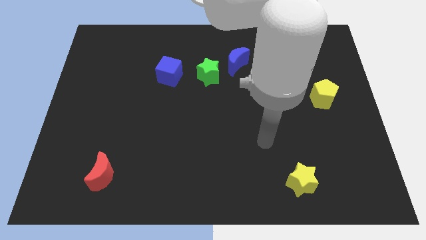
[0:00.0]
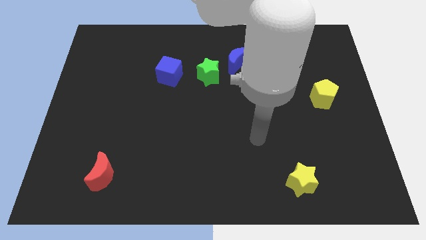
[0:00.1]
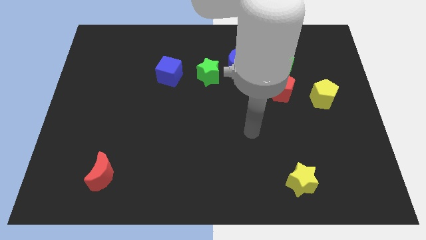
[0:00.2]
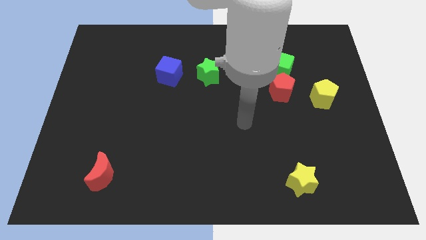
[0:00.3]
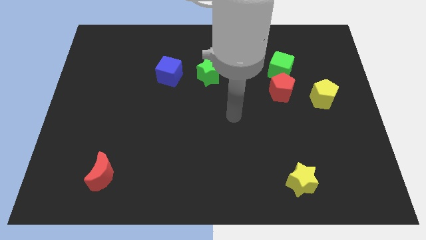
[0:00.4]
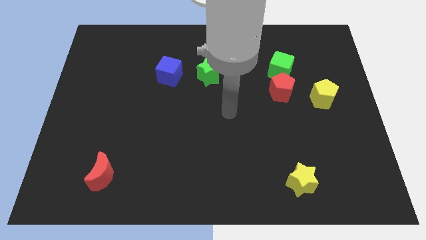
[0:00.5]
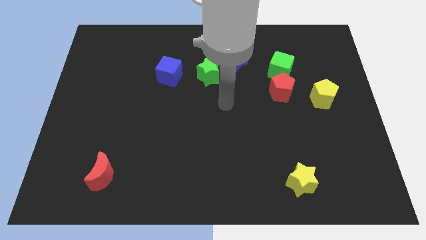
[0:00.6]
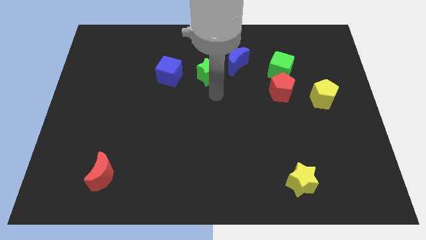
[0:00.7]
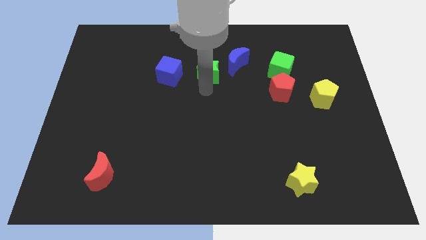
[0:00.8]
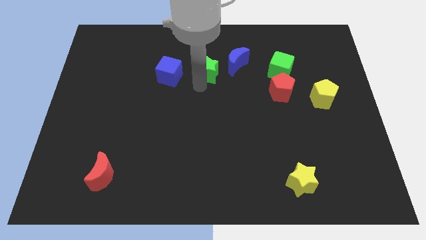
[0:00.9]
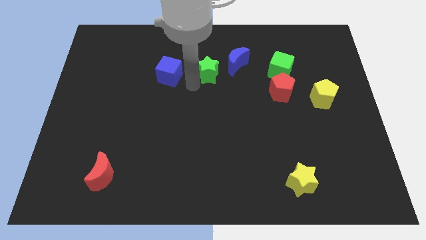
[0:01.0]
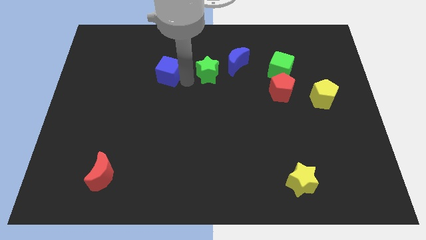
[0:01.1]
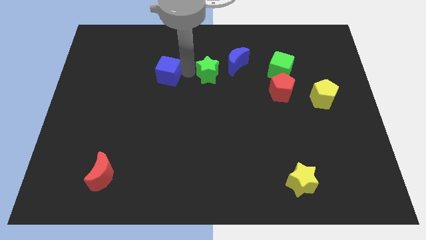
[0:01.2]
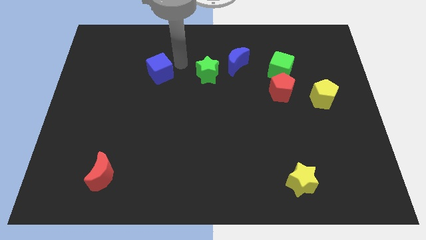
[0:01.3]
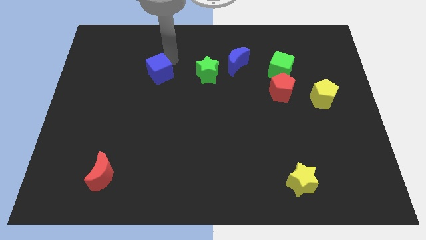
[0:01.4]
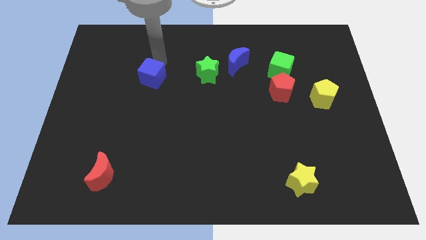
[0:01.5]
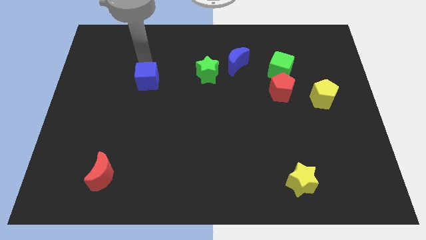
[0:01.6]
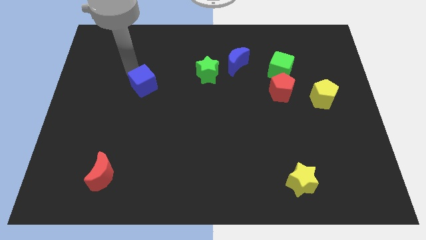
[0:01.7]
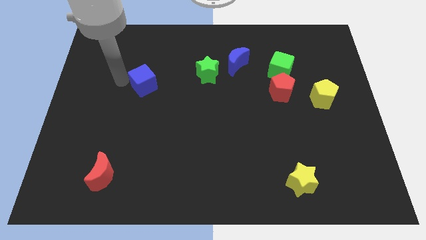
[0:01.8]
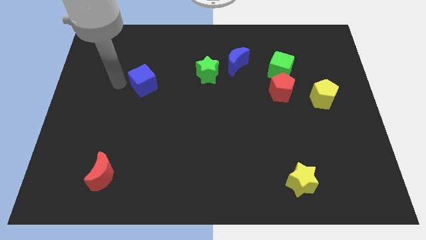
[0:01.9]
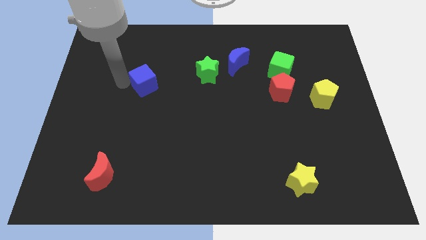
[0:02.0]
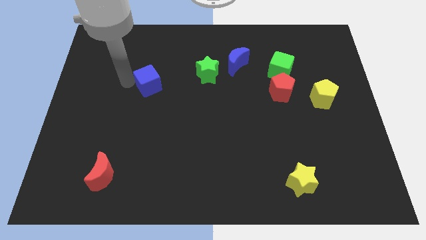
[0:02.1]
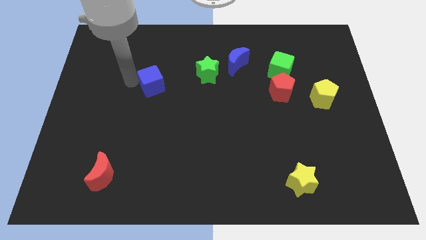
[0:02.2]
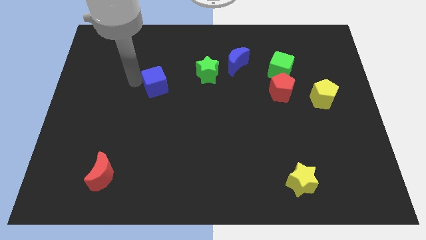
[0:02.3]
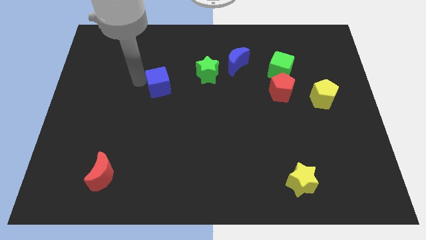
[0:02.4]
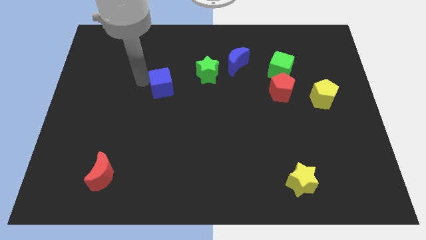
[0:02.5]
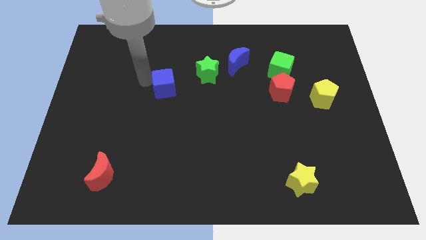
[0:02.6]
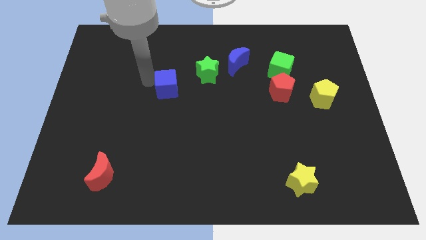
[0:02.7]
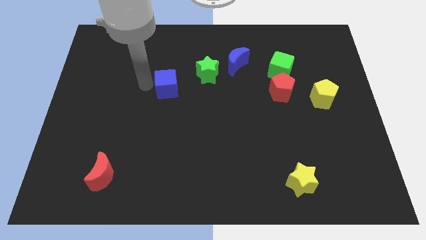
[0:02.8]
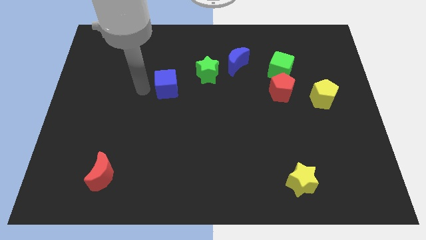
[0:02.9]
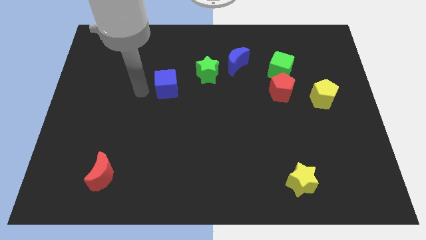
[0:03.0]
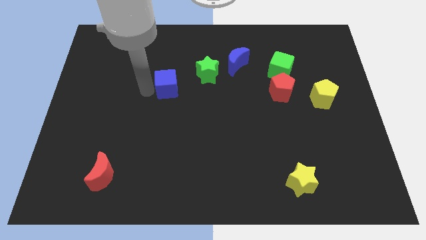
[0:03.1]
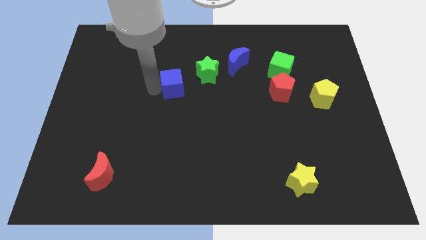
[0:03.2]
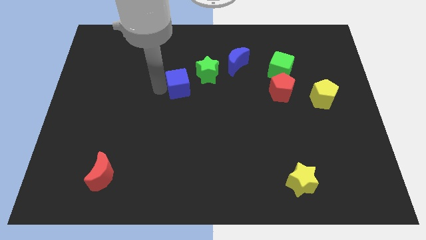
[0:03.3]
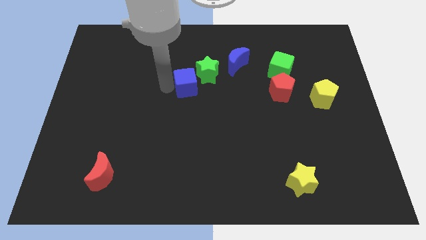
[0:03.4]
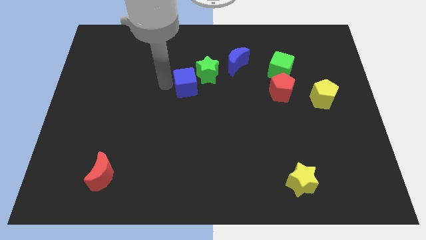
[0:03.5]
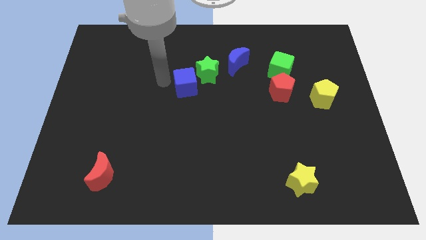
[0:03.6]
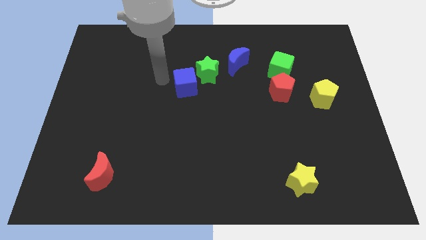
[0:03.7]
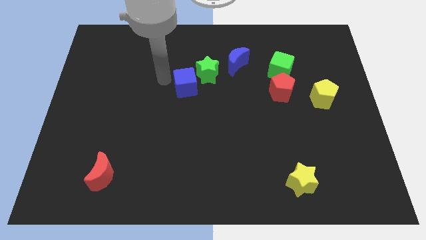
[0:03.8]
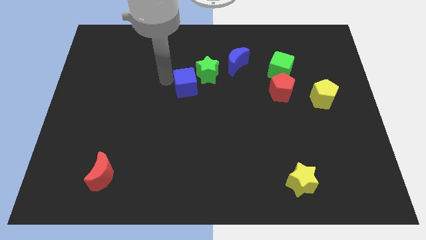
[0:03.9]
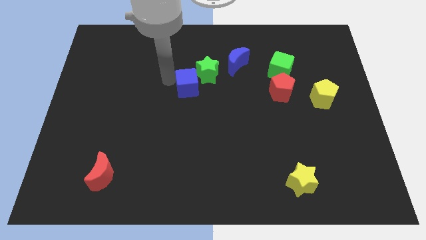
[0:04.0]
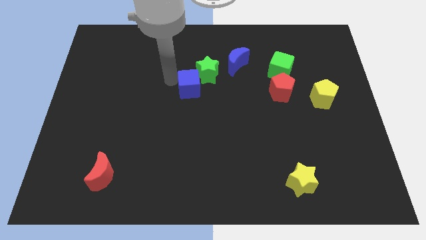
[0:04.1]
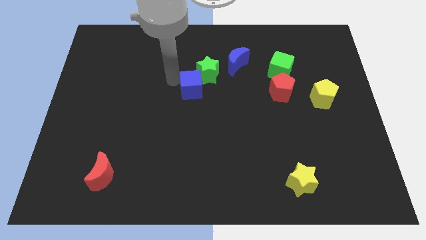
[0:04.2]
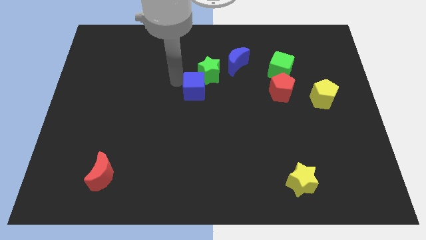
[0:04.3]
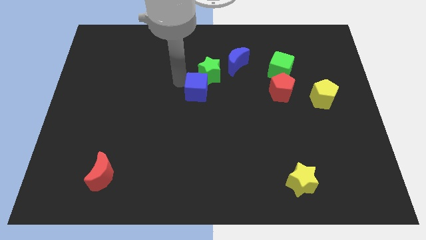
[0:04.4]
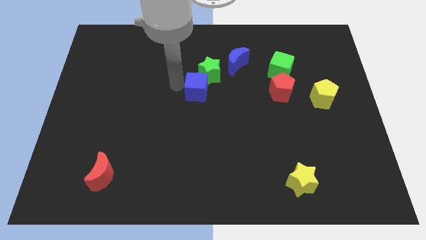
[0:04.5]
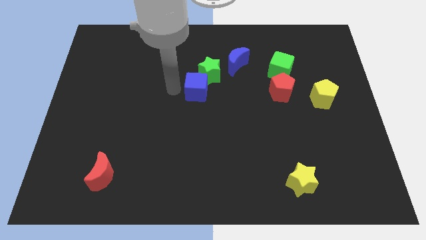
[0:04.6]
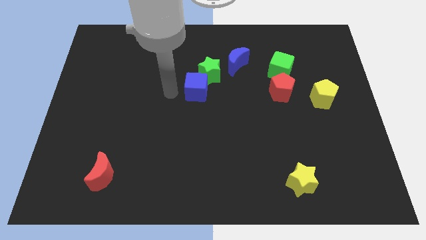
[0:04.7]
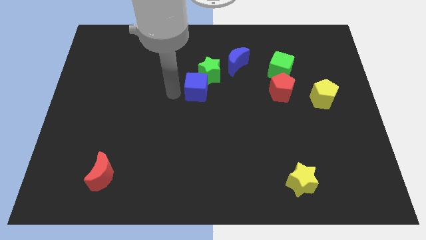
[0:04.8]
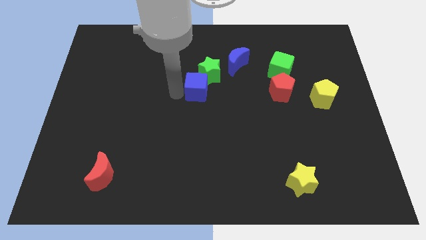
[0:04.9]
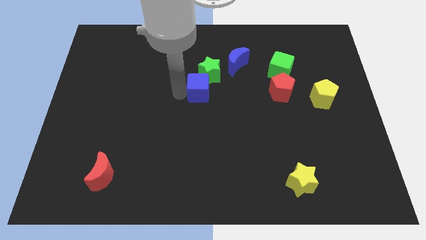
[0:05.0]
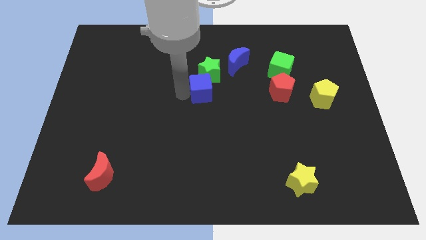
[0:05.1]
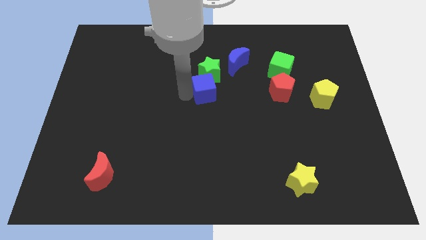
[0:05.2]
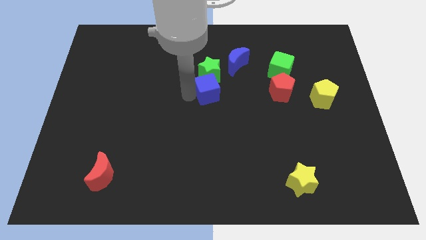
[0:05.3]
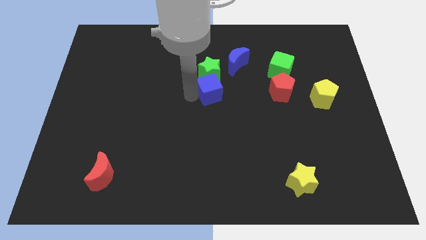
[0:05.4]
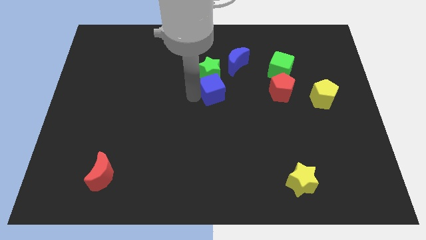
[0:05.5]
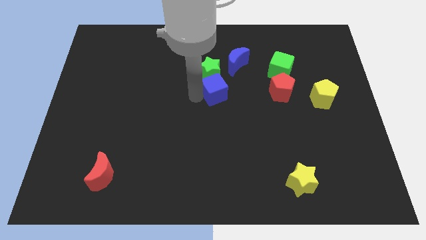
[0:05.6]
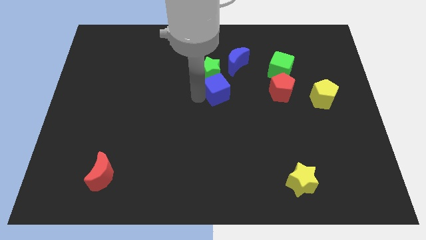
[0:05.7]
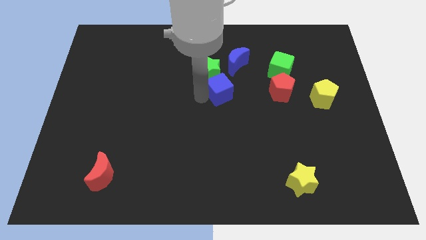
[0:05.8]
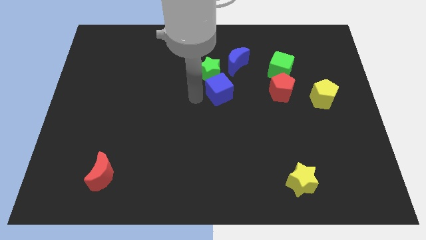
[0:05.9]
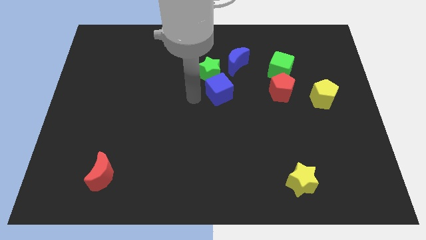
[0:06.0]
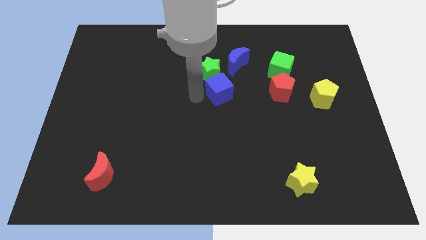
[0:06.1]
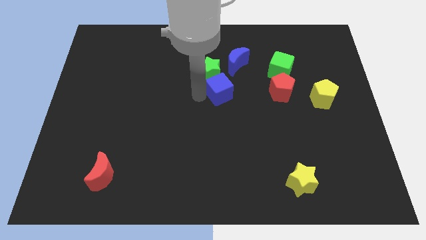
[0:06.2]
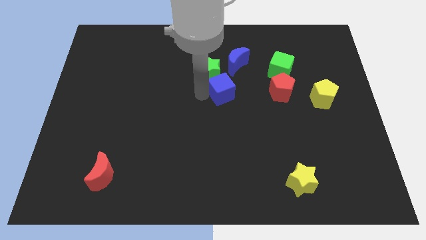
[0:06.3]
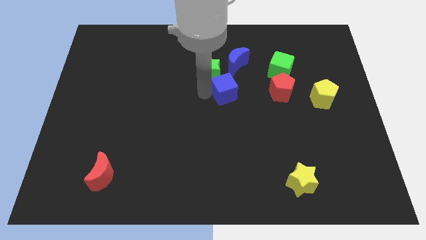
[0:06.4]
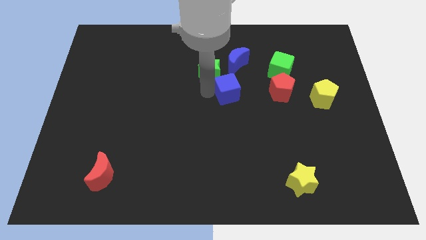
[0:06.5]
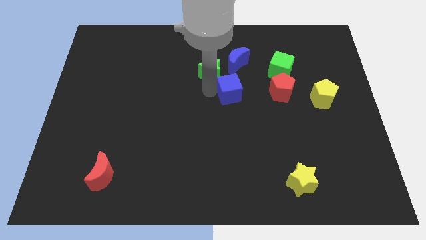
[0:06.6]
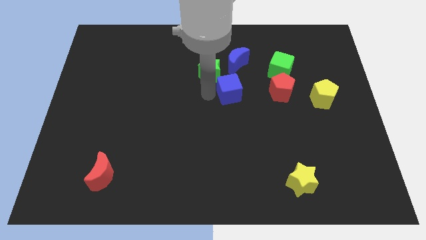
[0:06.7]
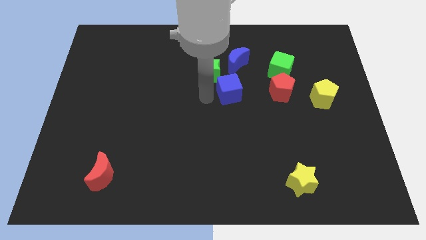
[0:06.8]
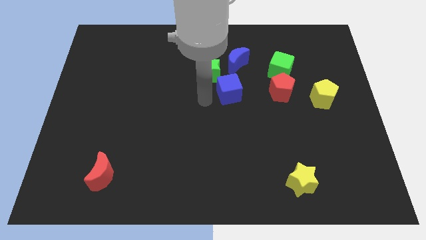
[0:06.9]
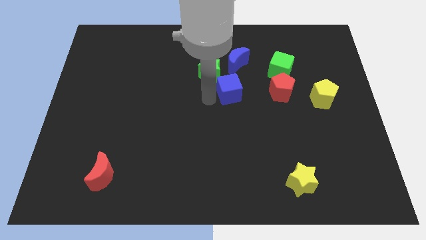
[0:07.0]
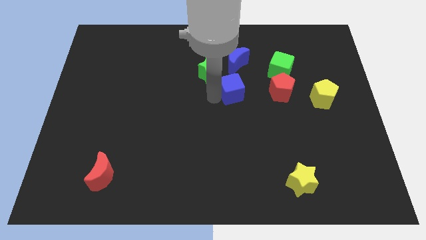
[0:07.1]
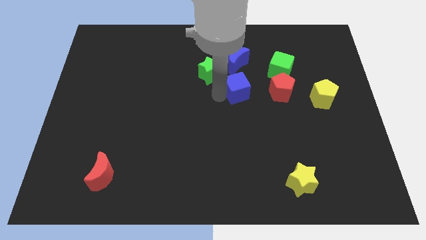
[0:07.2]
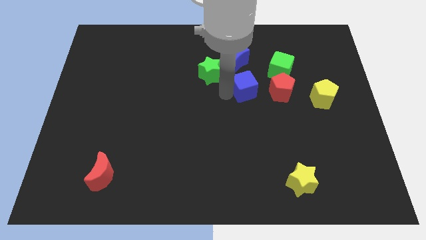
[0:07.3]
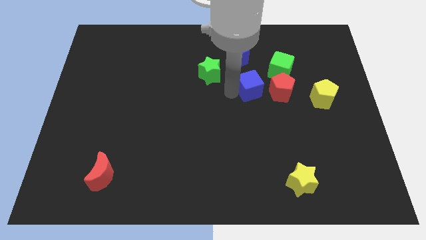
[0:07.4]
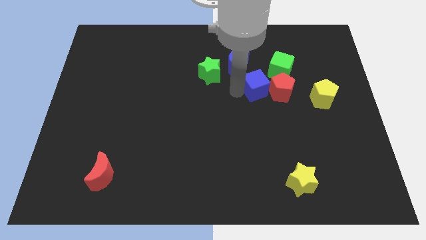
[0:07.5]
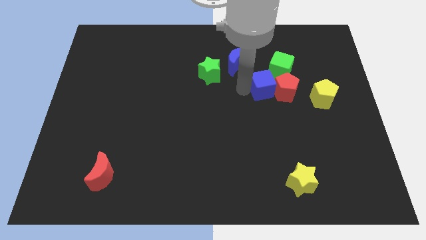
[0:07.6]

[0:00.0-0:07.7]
put the blue cube towards the red pentagon

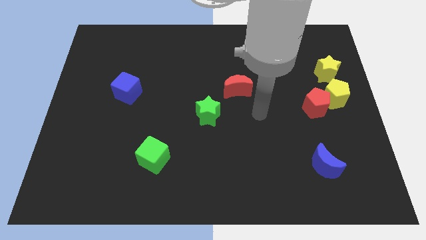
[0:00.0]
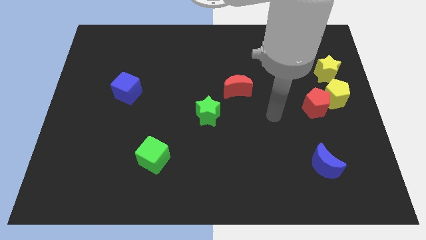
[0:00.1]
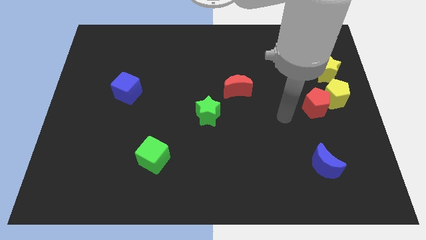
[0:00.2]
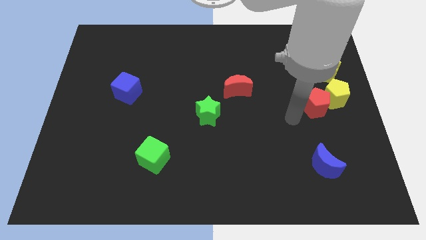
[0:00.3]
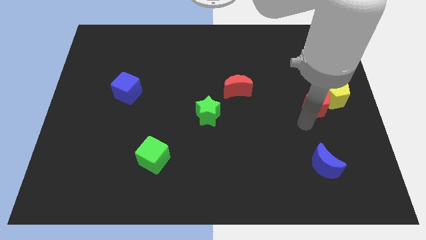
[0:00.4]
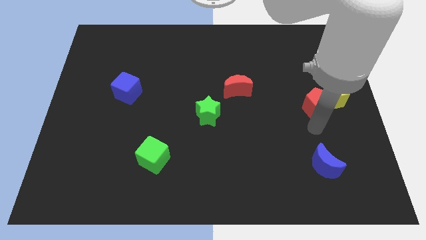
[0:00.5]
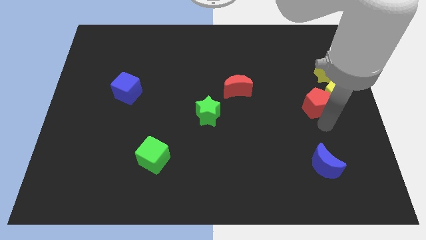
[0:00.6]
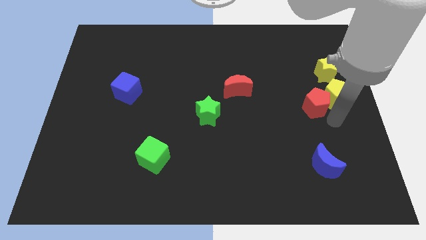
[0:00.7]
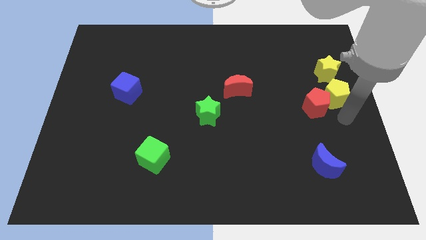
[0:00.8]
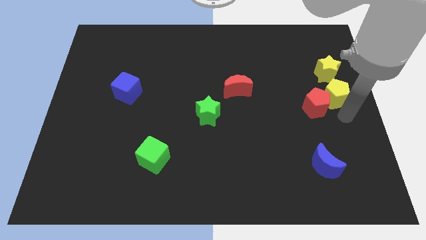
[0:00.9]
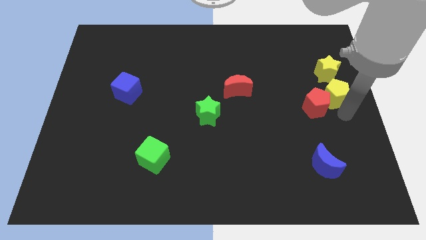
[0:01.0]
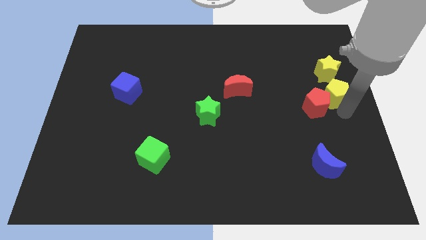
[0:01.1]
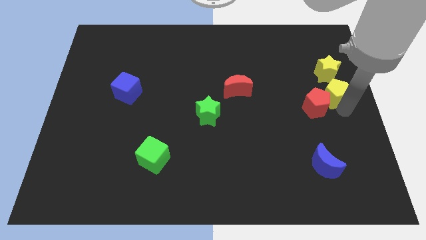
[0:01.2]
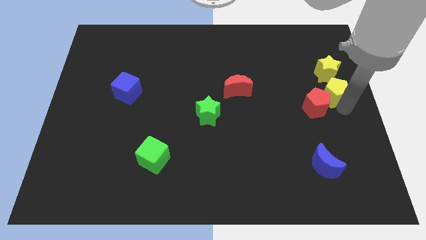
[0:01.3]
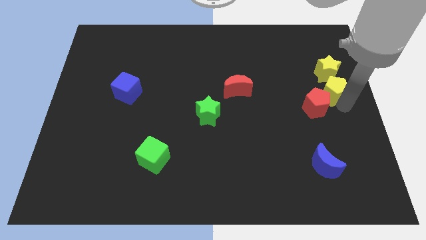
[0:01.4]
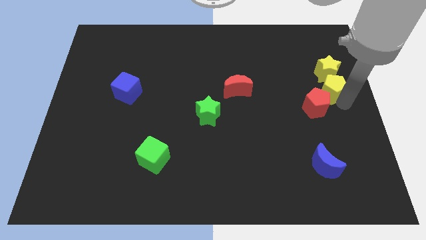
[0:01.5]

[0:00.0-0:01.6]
slide the yellow pentagon next to the yellow star
